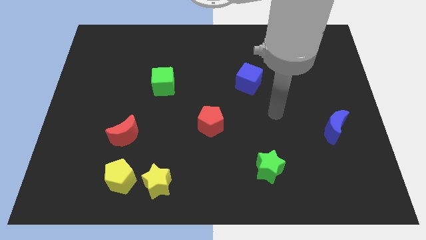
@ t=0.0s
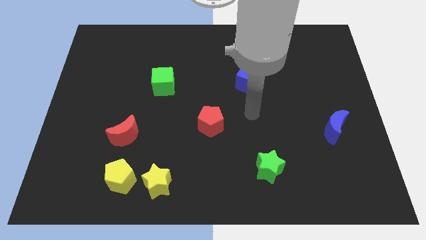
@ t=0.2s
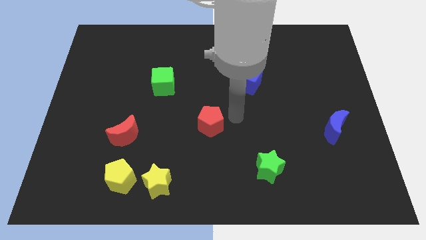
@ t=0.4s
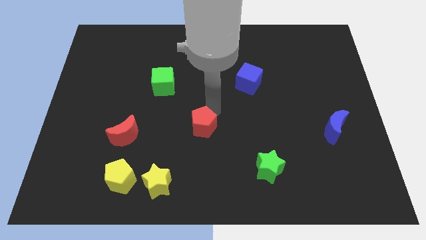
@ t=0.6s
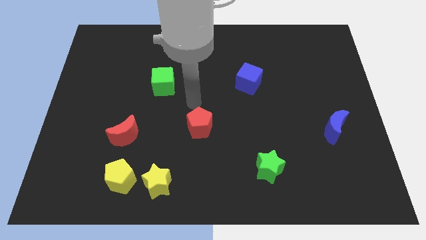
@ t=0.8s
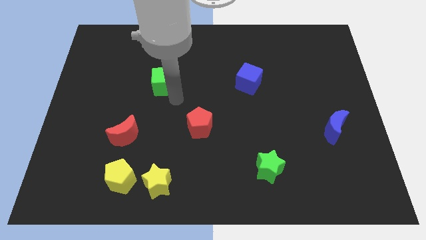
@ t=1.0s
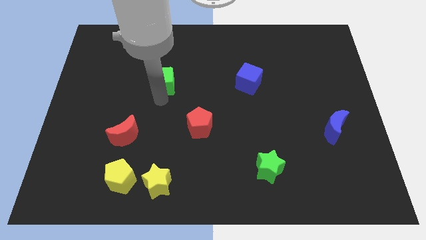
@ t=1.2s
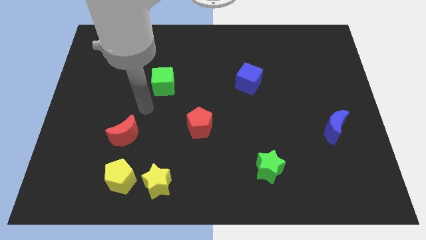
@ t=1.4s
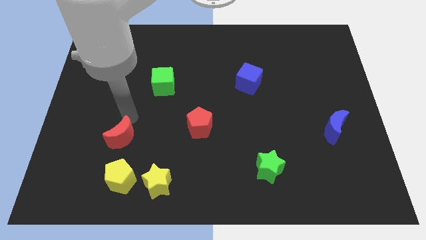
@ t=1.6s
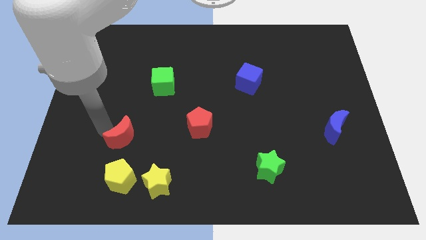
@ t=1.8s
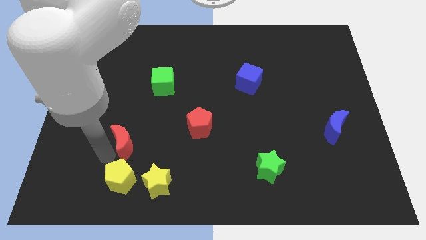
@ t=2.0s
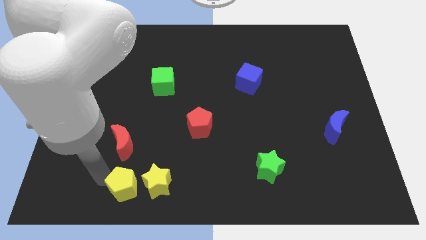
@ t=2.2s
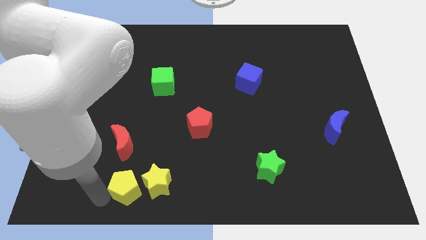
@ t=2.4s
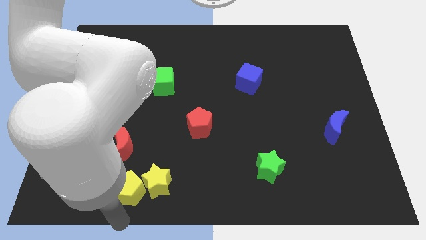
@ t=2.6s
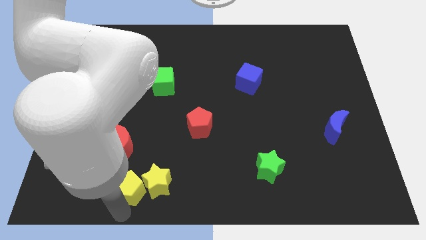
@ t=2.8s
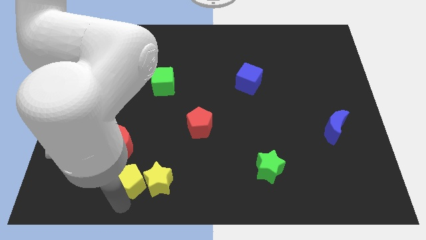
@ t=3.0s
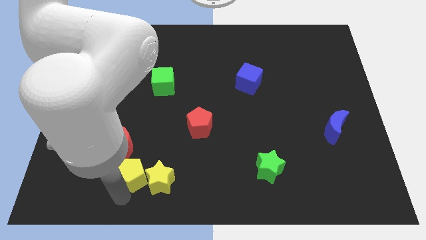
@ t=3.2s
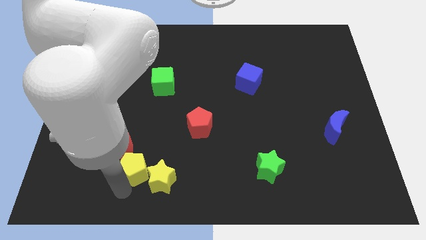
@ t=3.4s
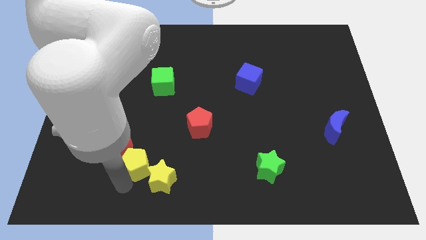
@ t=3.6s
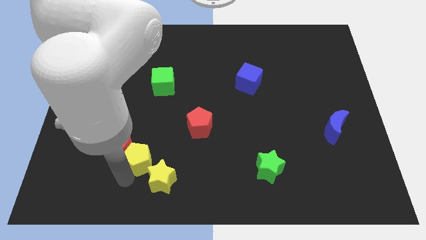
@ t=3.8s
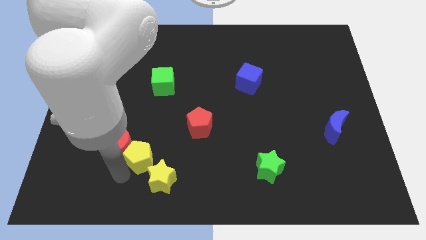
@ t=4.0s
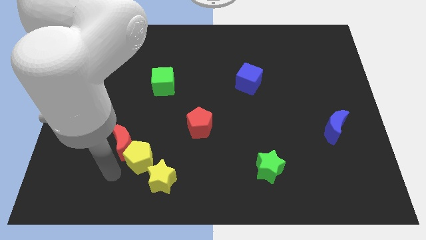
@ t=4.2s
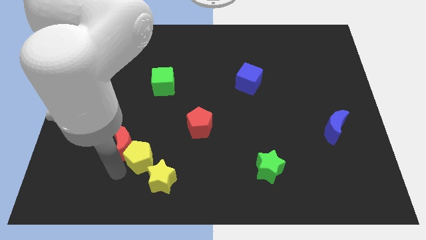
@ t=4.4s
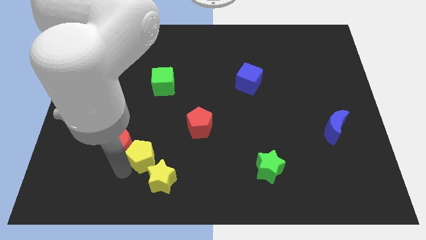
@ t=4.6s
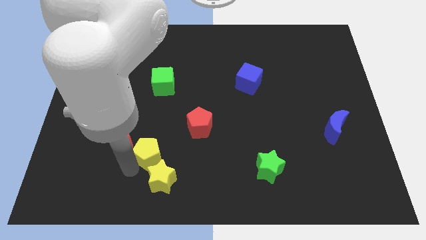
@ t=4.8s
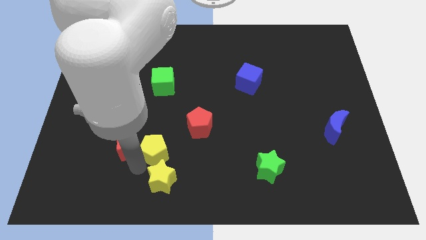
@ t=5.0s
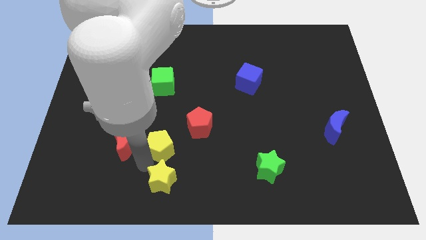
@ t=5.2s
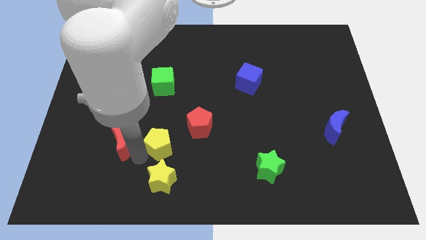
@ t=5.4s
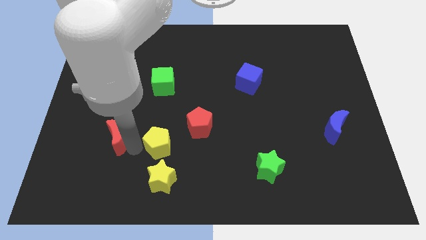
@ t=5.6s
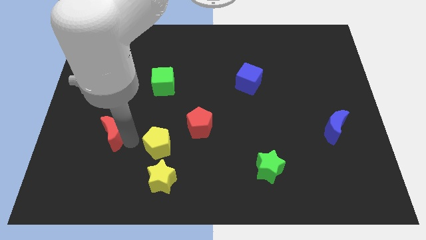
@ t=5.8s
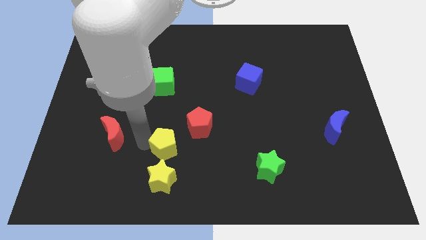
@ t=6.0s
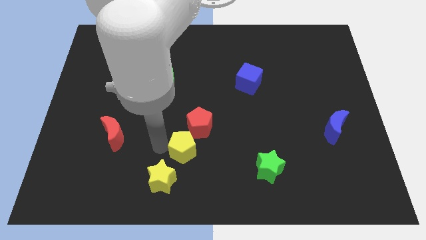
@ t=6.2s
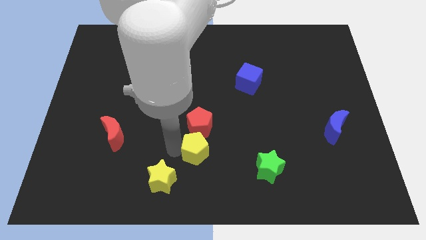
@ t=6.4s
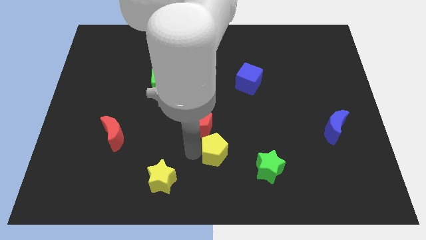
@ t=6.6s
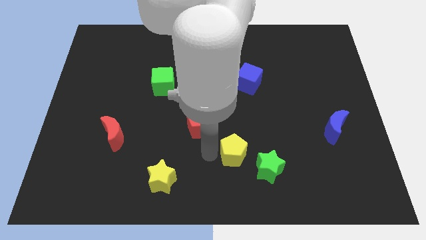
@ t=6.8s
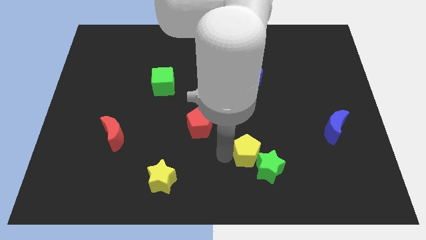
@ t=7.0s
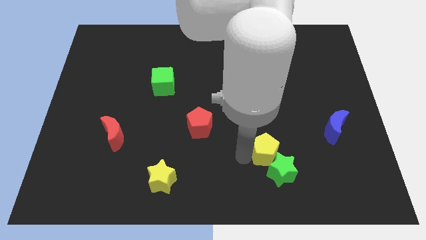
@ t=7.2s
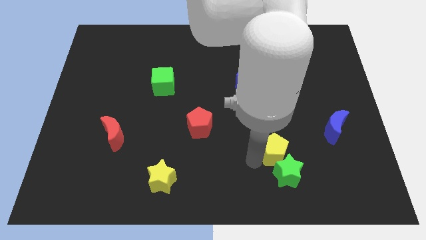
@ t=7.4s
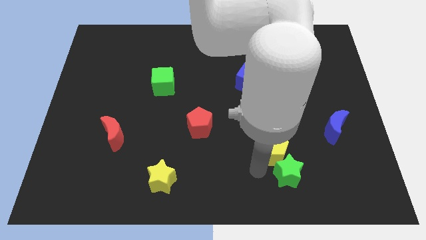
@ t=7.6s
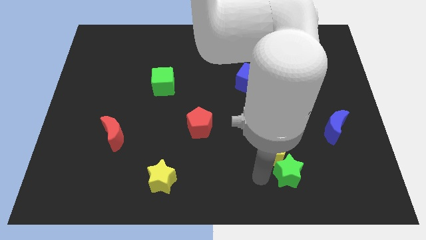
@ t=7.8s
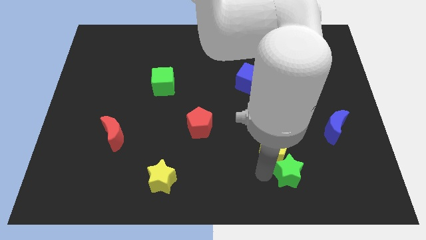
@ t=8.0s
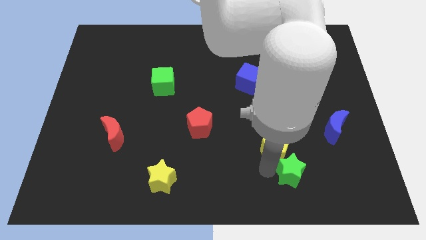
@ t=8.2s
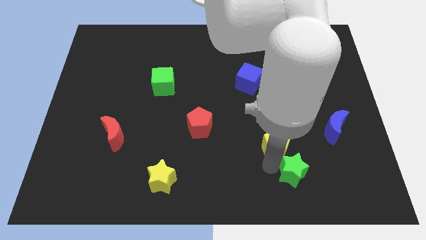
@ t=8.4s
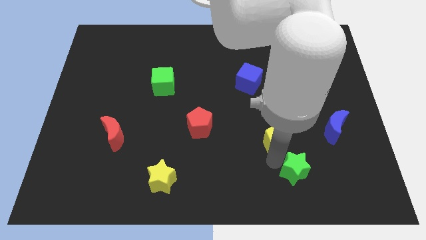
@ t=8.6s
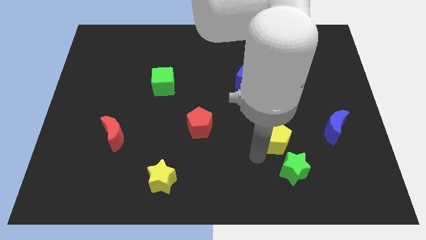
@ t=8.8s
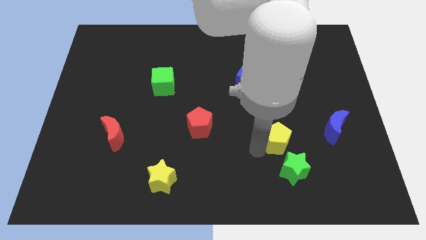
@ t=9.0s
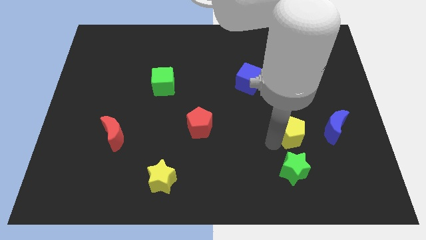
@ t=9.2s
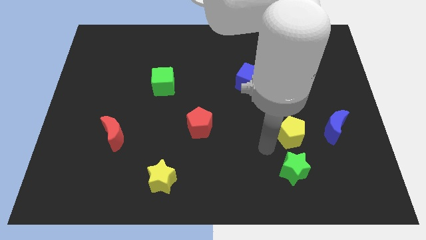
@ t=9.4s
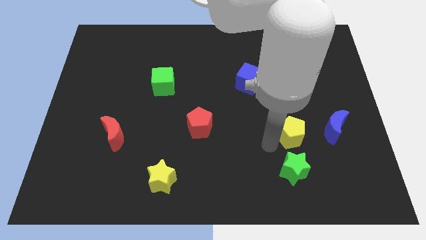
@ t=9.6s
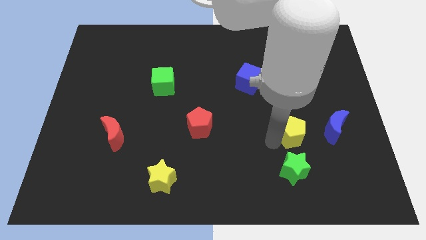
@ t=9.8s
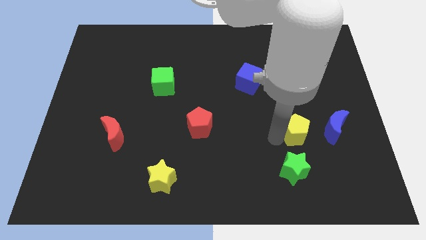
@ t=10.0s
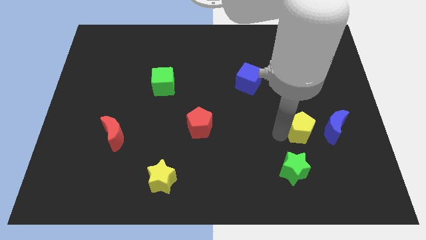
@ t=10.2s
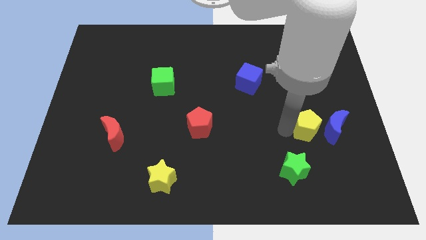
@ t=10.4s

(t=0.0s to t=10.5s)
move the yellow pentagon to the blue moon

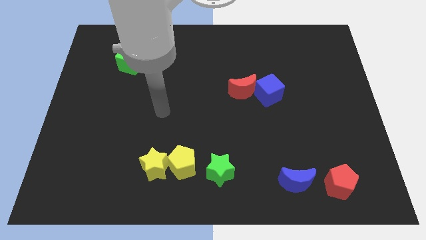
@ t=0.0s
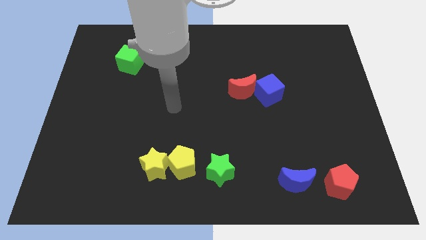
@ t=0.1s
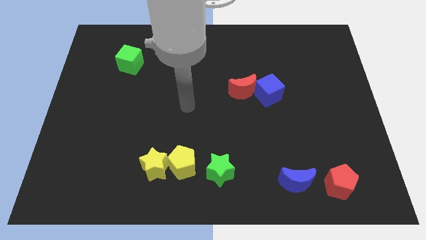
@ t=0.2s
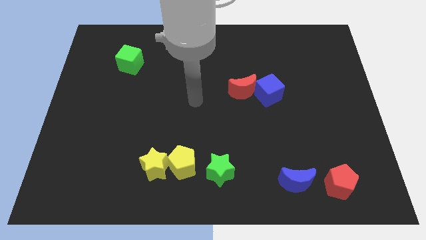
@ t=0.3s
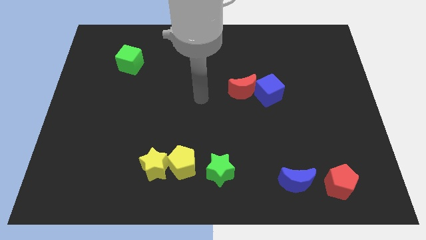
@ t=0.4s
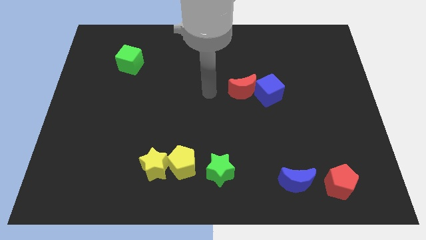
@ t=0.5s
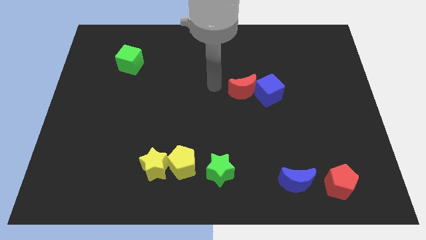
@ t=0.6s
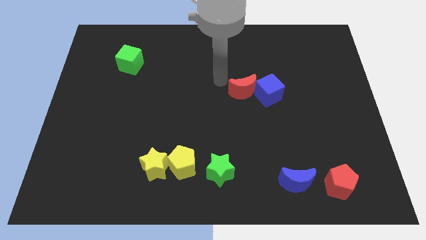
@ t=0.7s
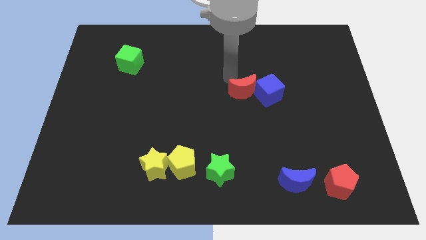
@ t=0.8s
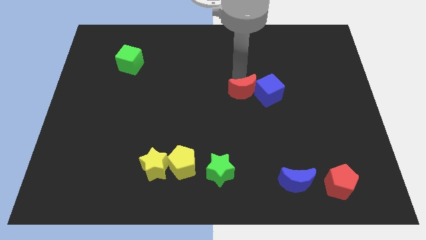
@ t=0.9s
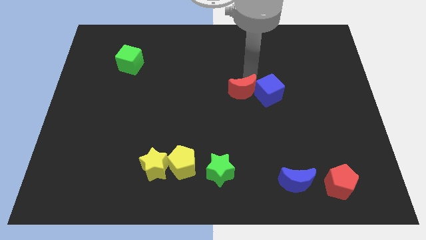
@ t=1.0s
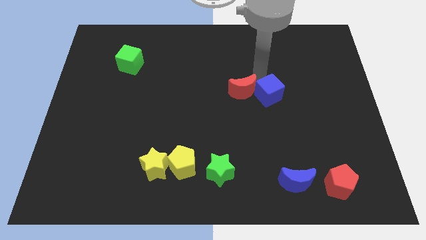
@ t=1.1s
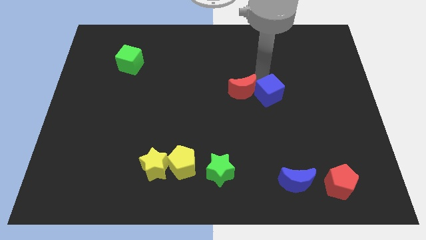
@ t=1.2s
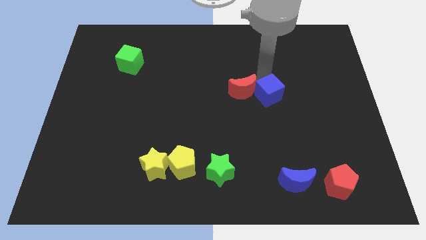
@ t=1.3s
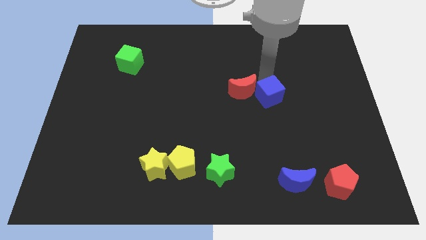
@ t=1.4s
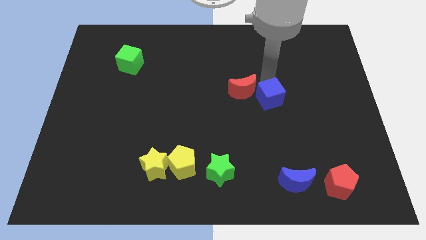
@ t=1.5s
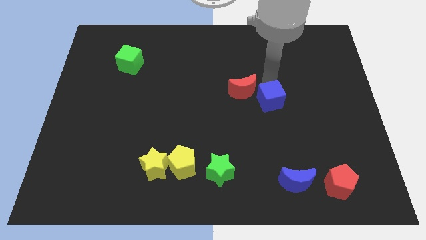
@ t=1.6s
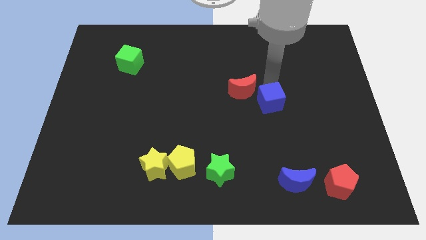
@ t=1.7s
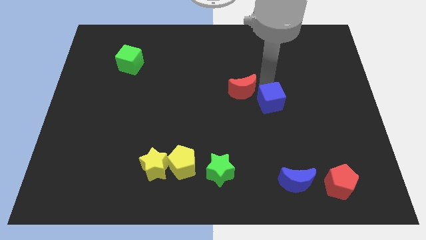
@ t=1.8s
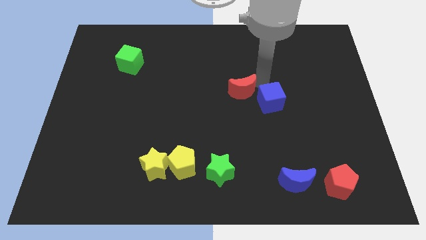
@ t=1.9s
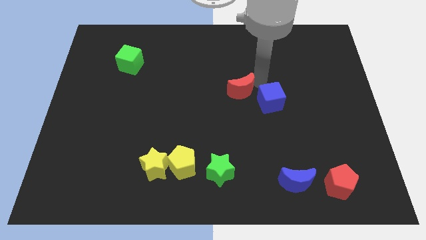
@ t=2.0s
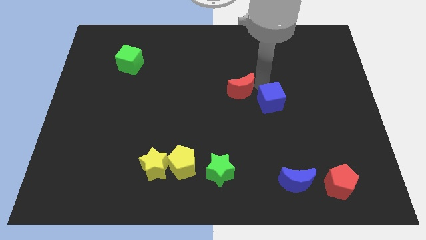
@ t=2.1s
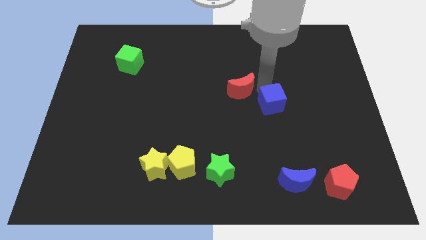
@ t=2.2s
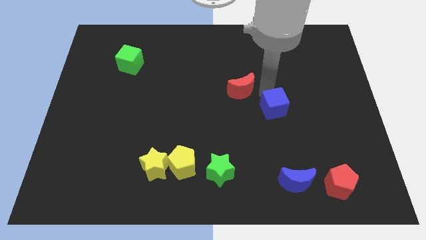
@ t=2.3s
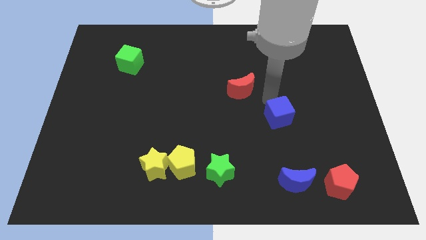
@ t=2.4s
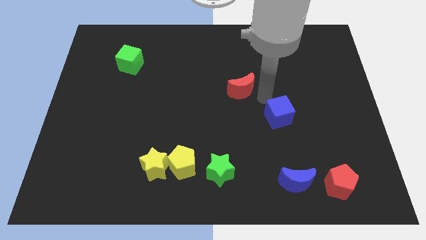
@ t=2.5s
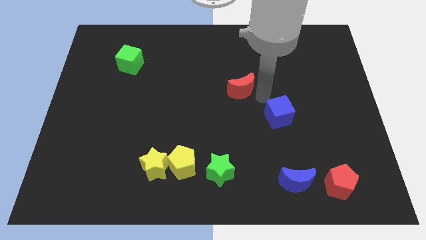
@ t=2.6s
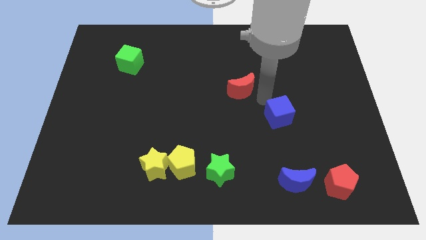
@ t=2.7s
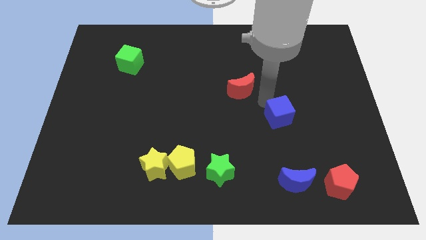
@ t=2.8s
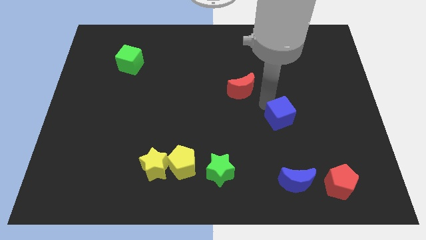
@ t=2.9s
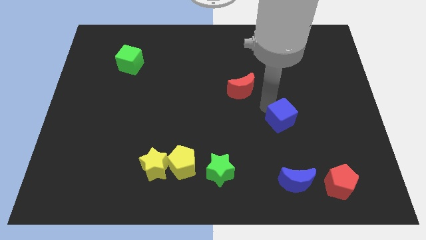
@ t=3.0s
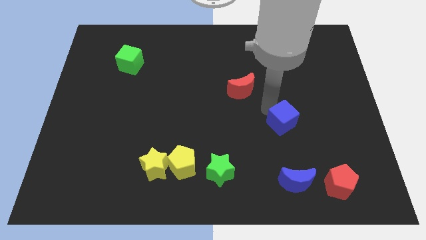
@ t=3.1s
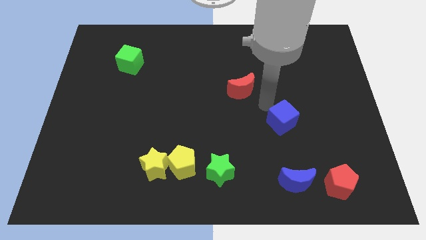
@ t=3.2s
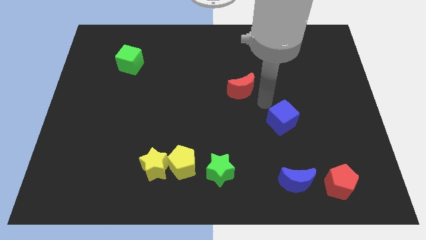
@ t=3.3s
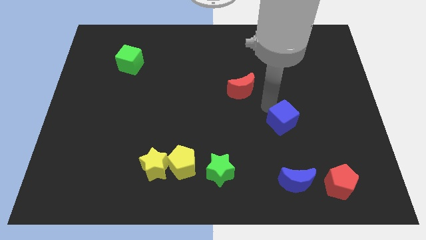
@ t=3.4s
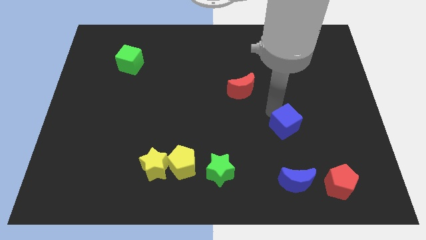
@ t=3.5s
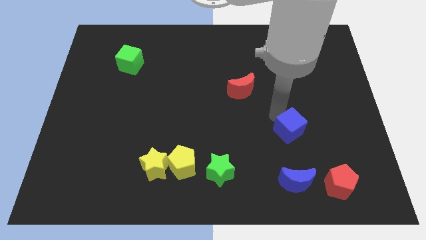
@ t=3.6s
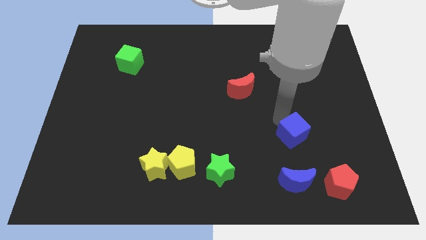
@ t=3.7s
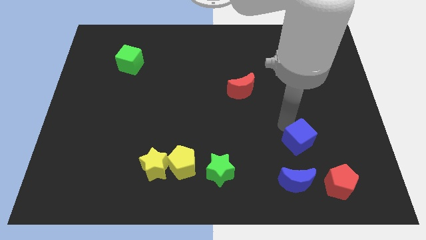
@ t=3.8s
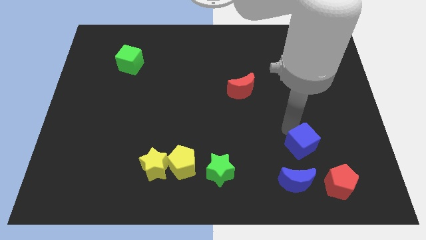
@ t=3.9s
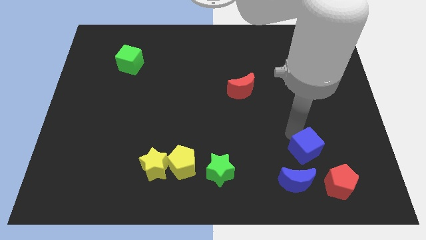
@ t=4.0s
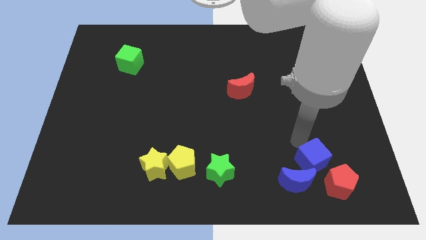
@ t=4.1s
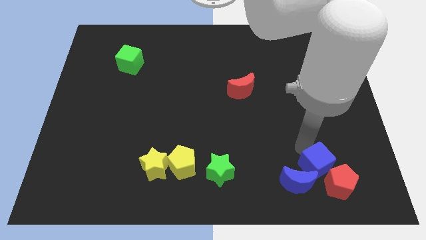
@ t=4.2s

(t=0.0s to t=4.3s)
put the blue cube close to the red pentagon
